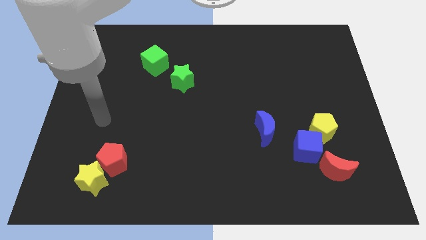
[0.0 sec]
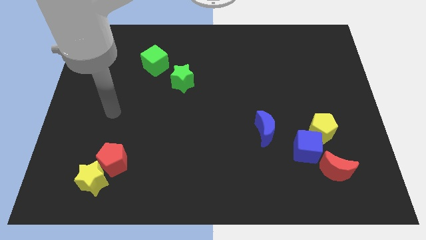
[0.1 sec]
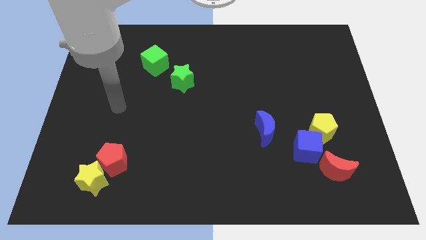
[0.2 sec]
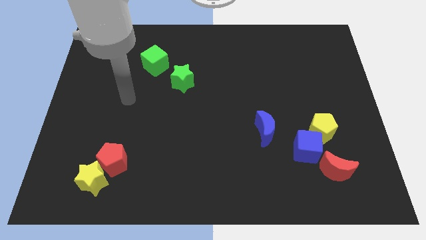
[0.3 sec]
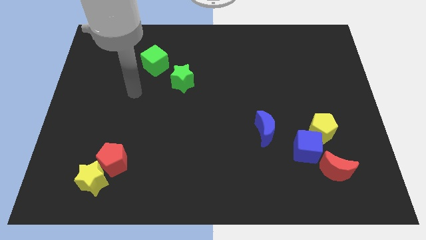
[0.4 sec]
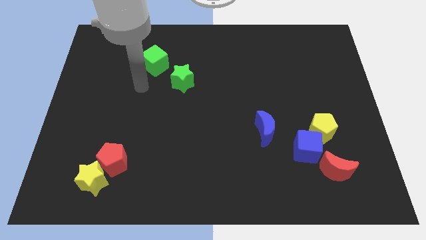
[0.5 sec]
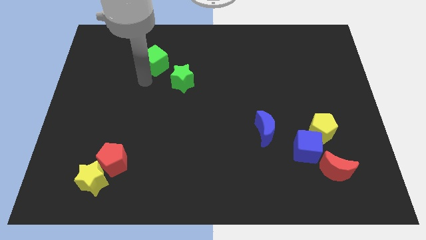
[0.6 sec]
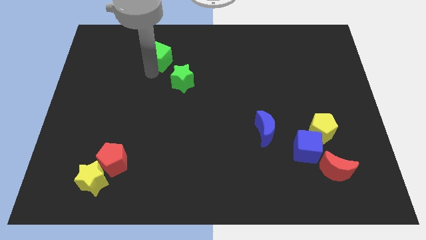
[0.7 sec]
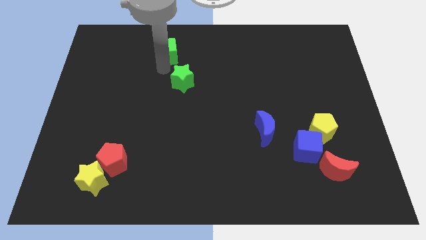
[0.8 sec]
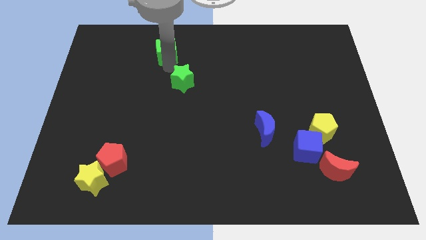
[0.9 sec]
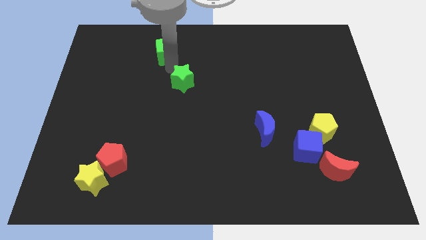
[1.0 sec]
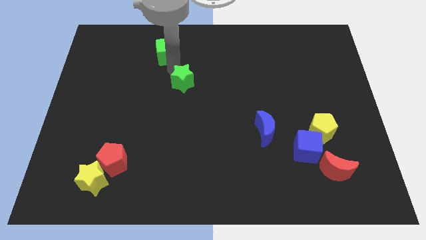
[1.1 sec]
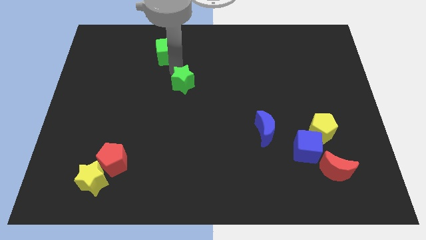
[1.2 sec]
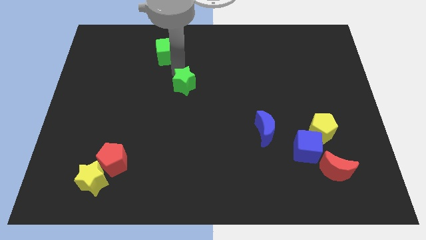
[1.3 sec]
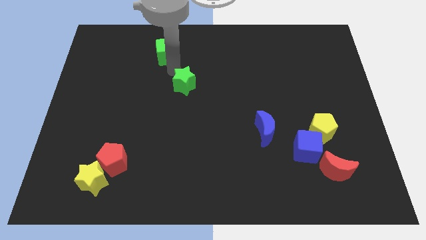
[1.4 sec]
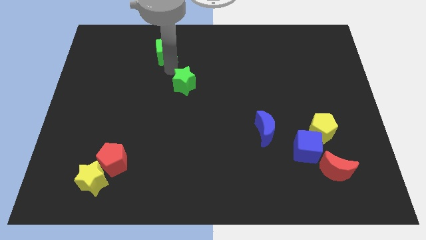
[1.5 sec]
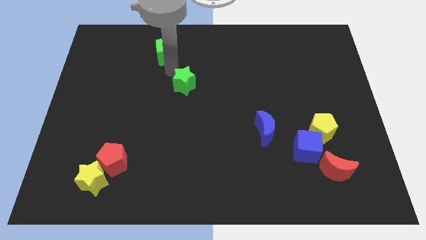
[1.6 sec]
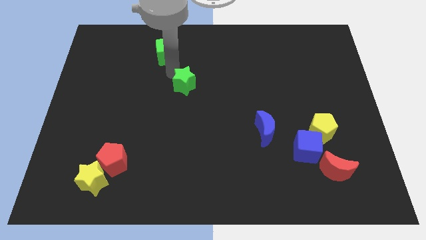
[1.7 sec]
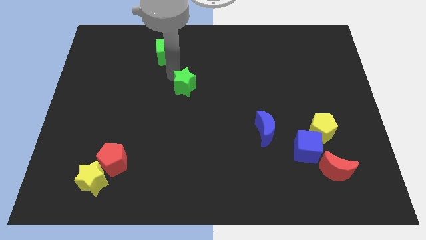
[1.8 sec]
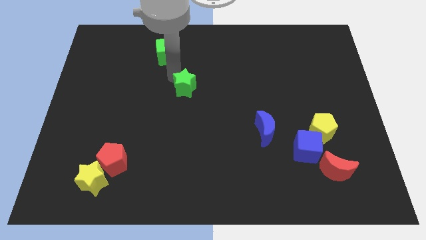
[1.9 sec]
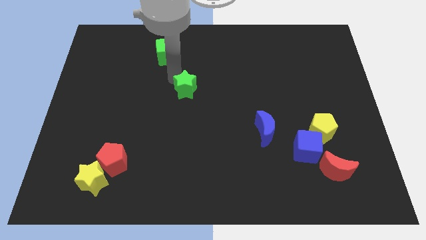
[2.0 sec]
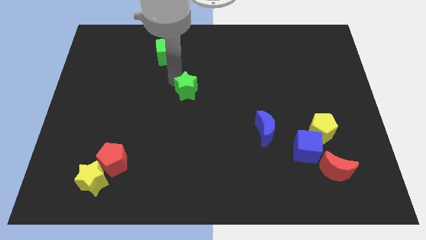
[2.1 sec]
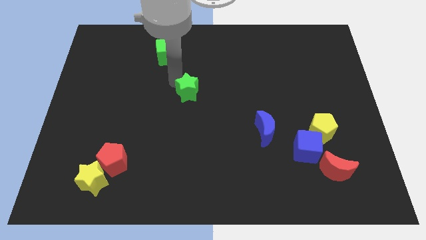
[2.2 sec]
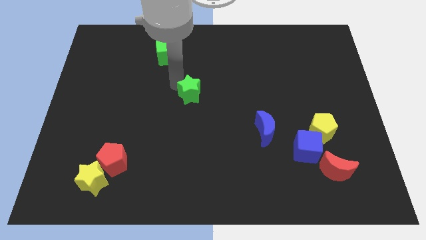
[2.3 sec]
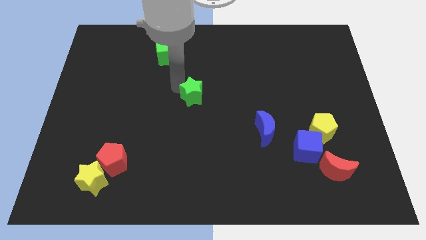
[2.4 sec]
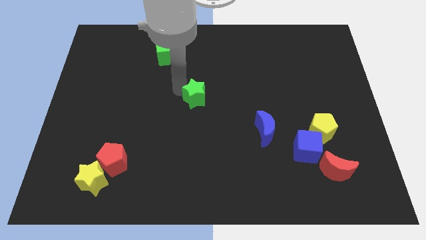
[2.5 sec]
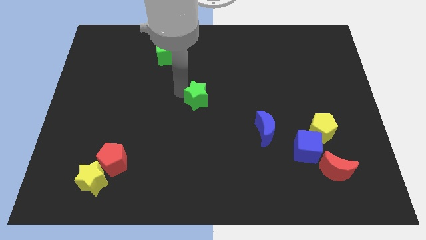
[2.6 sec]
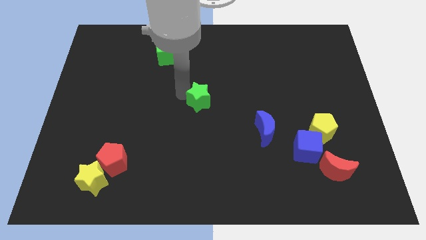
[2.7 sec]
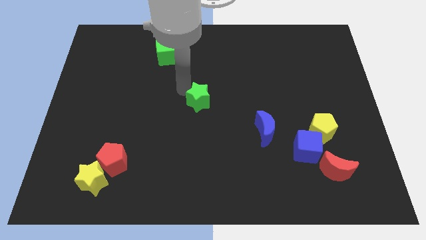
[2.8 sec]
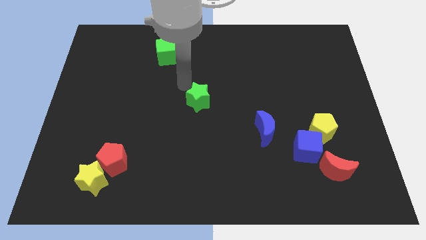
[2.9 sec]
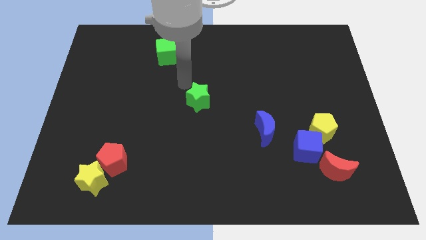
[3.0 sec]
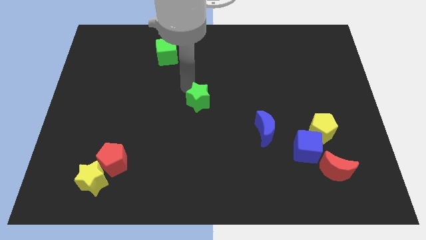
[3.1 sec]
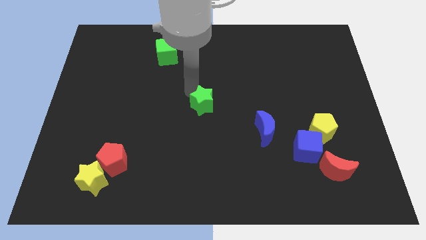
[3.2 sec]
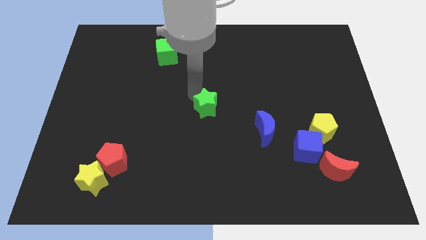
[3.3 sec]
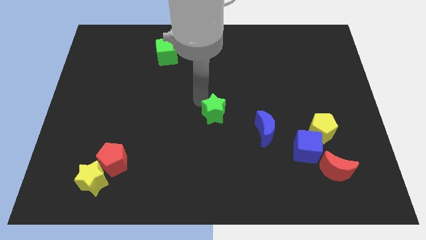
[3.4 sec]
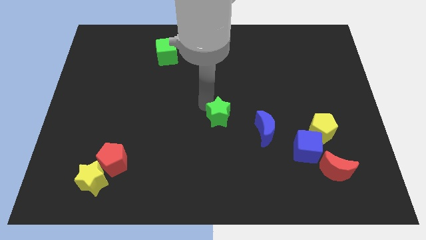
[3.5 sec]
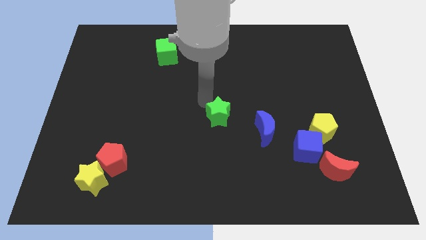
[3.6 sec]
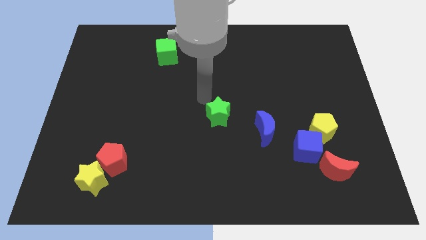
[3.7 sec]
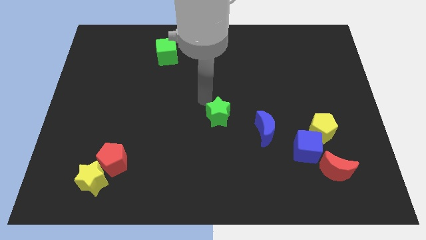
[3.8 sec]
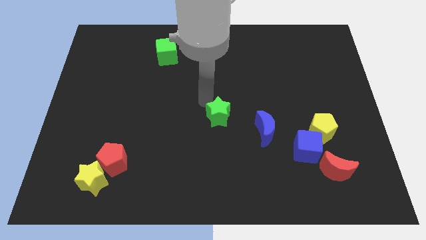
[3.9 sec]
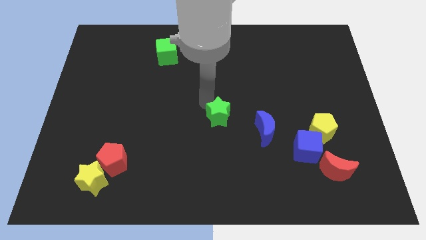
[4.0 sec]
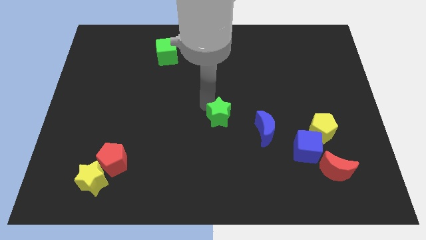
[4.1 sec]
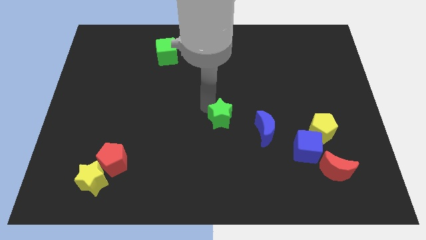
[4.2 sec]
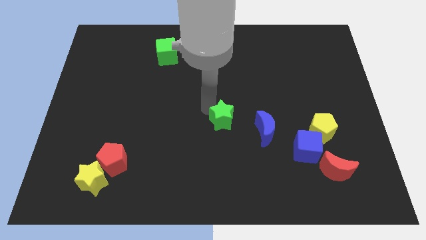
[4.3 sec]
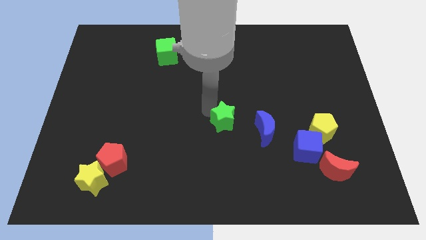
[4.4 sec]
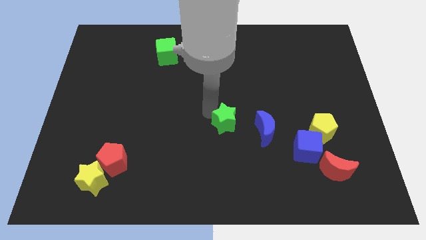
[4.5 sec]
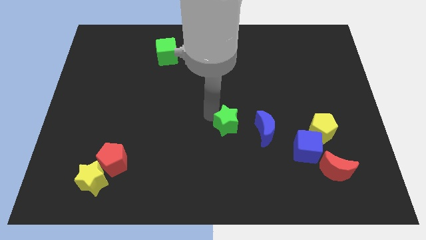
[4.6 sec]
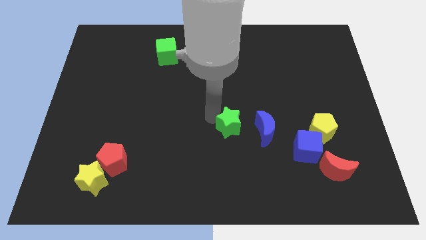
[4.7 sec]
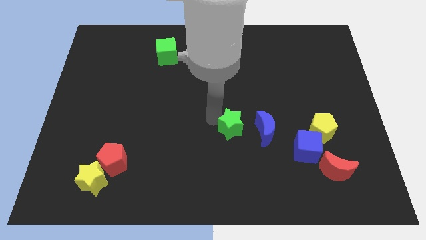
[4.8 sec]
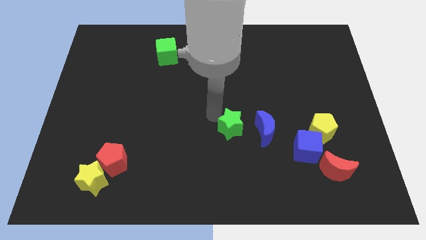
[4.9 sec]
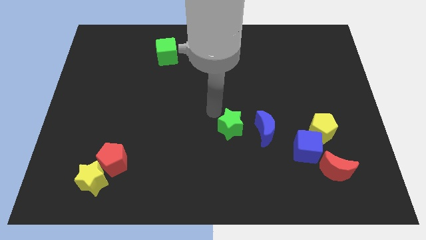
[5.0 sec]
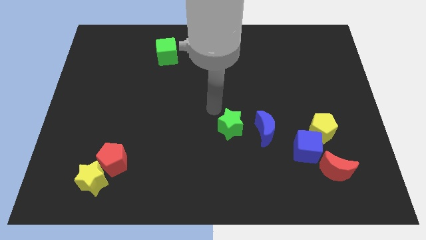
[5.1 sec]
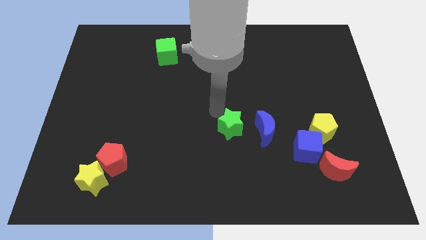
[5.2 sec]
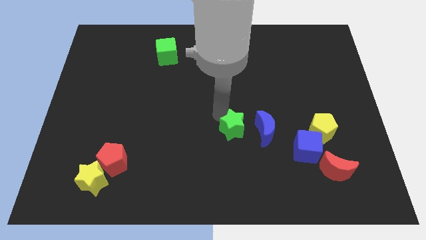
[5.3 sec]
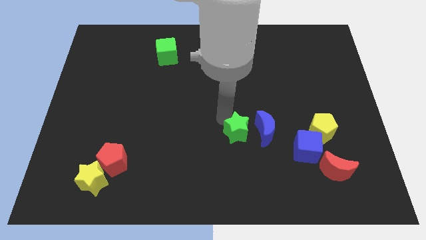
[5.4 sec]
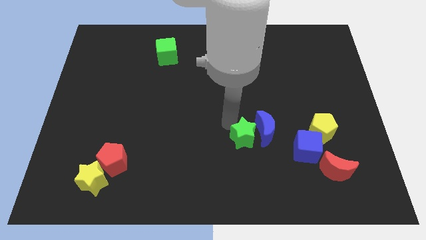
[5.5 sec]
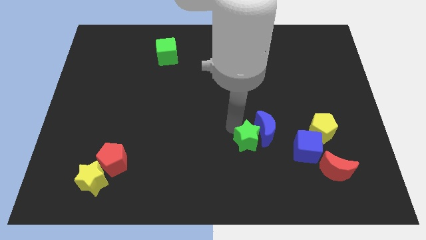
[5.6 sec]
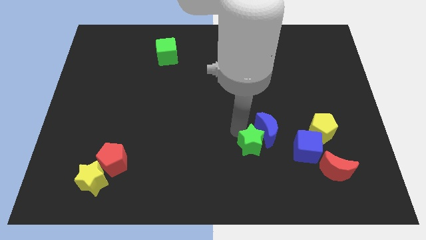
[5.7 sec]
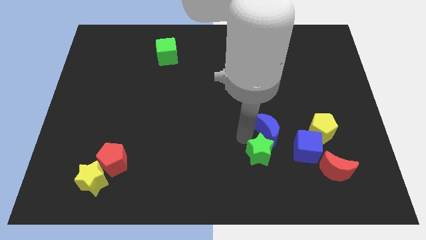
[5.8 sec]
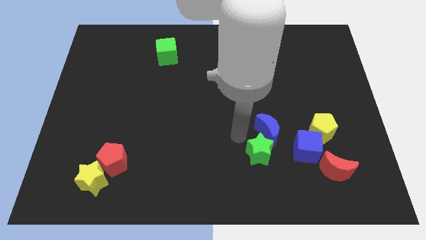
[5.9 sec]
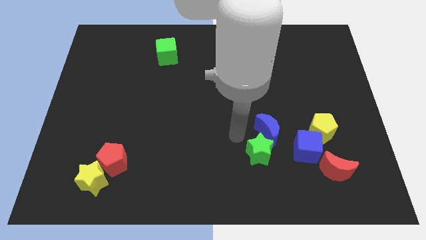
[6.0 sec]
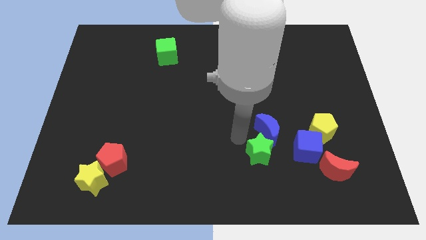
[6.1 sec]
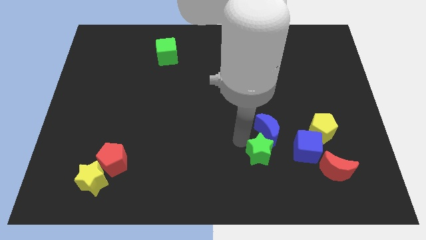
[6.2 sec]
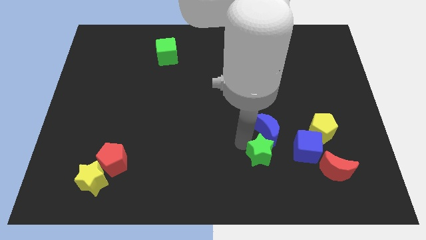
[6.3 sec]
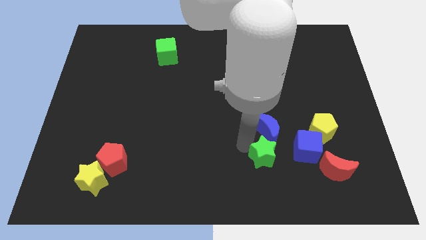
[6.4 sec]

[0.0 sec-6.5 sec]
slide the green star just left of the red moon
